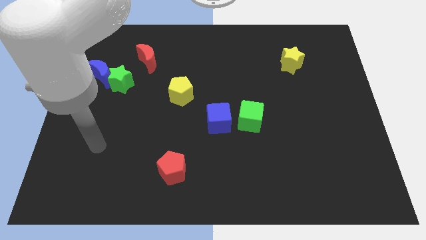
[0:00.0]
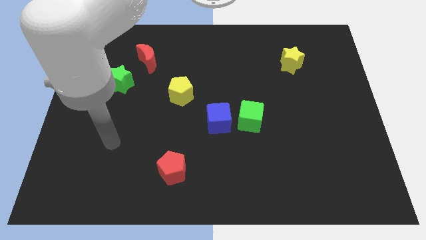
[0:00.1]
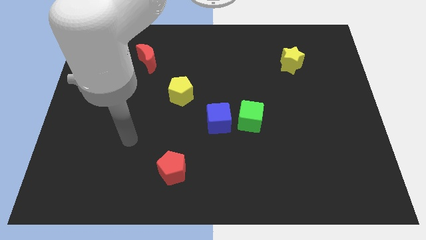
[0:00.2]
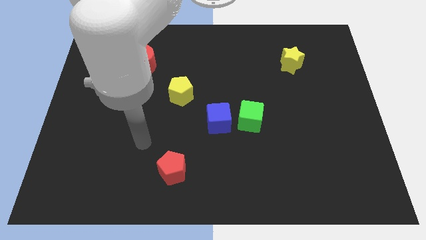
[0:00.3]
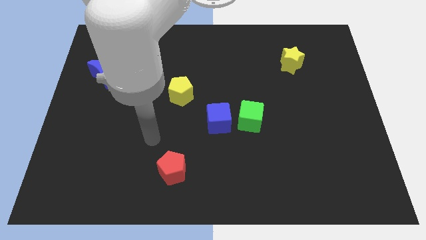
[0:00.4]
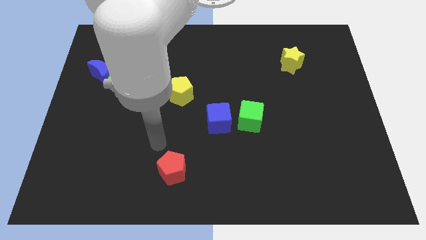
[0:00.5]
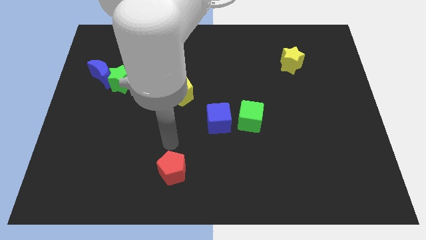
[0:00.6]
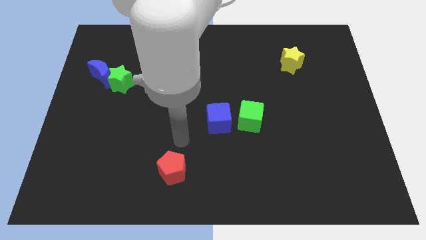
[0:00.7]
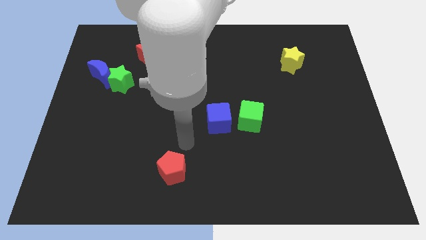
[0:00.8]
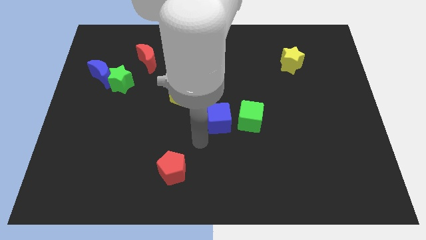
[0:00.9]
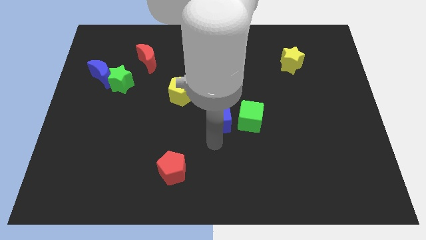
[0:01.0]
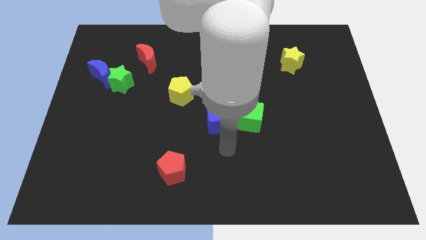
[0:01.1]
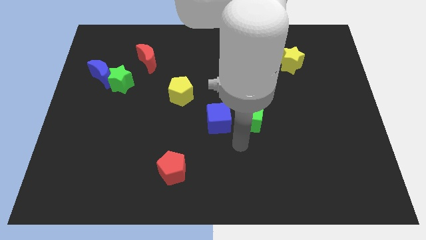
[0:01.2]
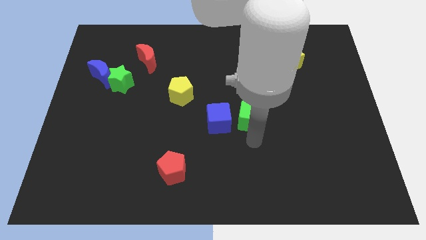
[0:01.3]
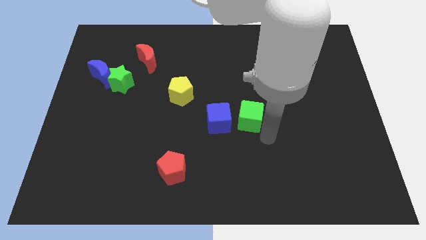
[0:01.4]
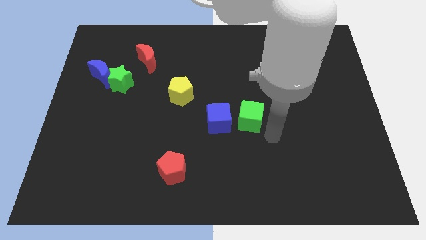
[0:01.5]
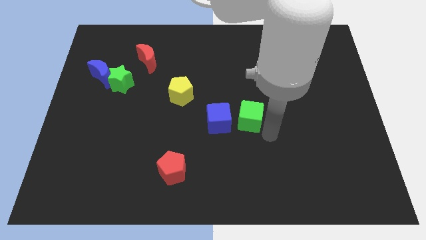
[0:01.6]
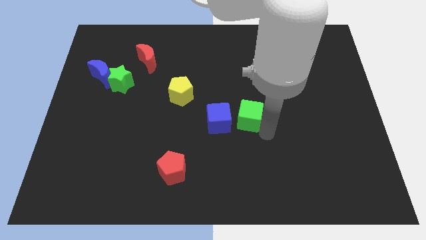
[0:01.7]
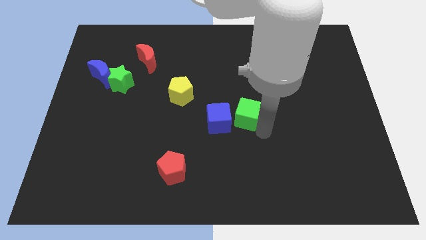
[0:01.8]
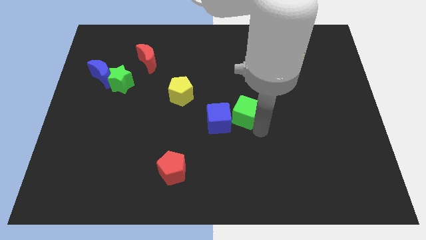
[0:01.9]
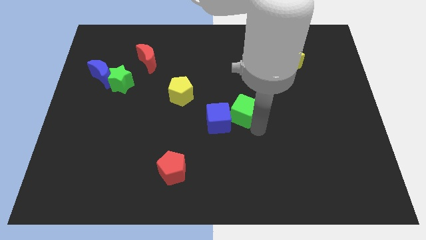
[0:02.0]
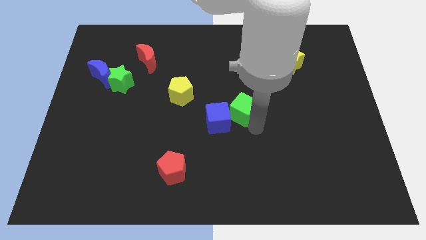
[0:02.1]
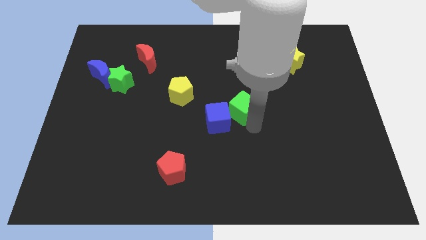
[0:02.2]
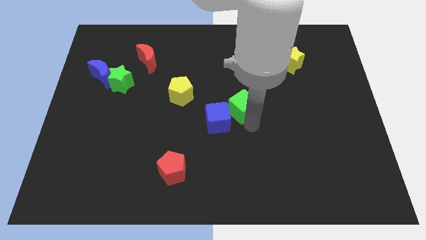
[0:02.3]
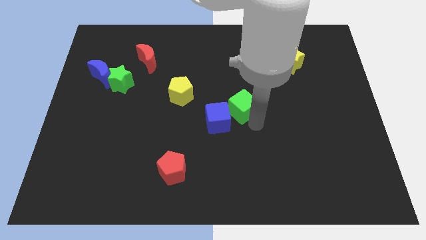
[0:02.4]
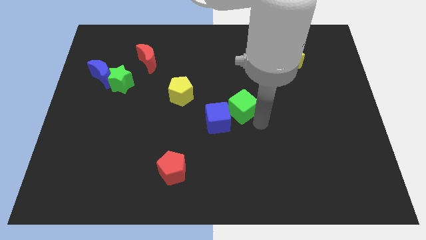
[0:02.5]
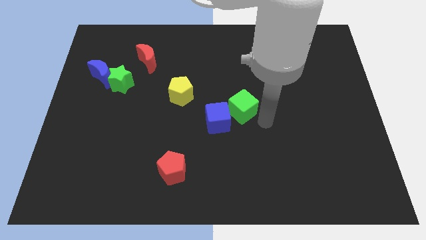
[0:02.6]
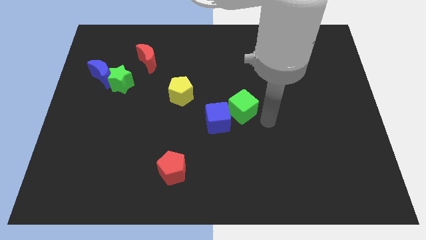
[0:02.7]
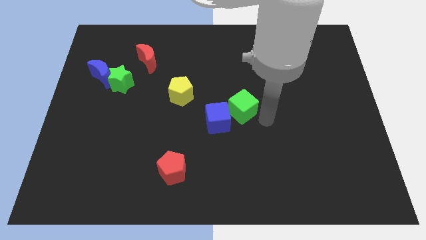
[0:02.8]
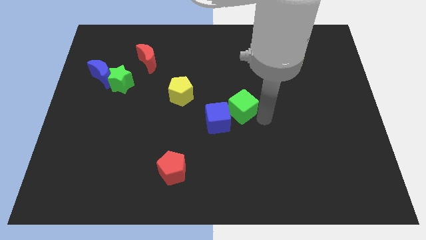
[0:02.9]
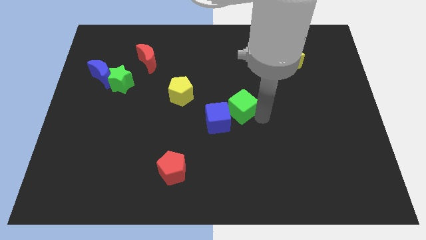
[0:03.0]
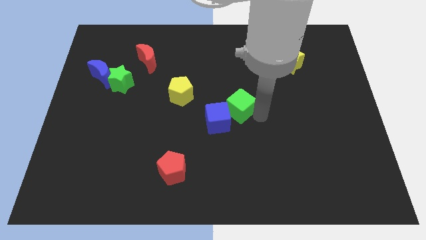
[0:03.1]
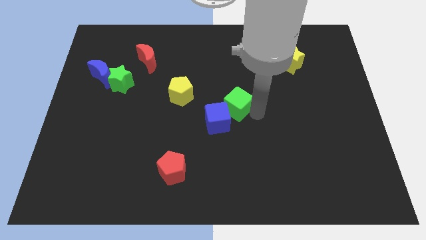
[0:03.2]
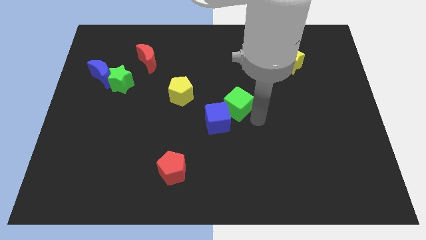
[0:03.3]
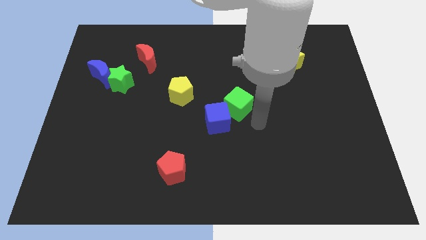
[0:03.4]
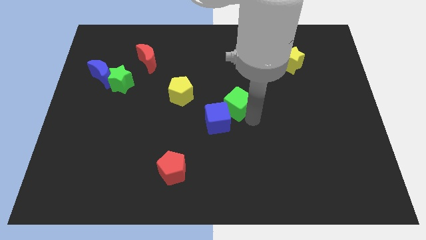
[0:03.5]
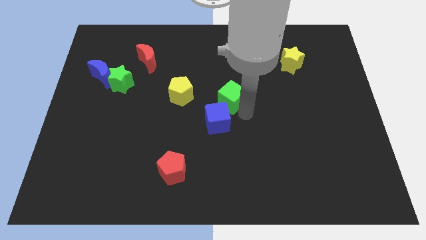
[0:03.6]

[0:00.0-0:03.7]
slightly push the green cube diagonally up and left

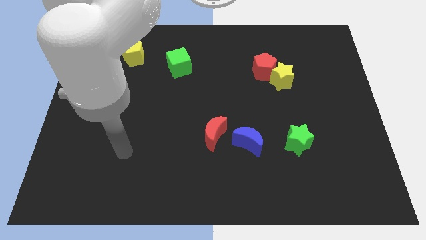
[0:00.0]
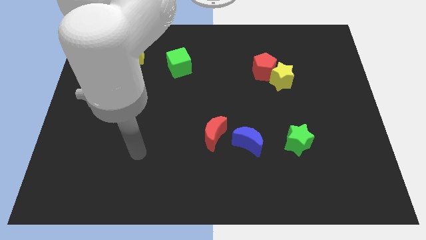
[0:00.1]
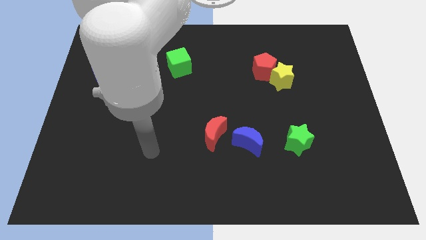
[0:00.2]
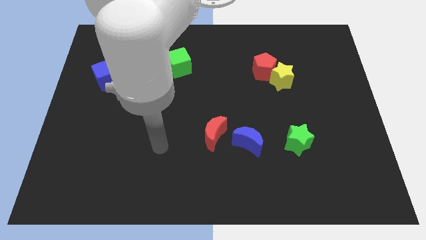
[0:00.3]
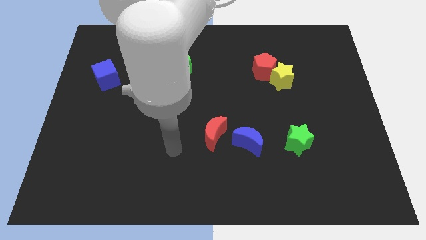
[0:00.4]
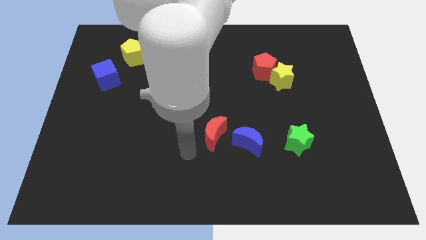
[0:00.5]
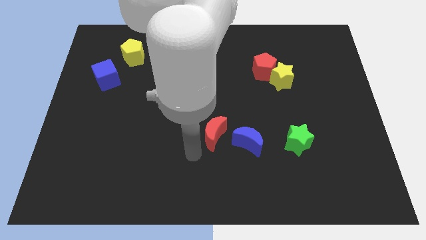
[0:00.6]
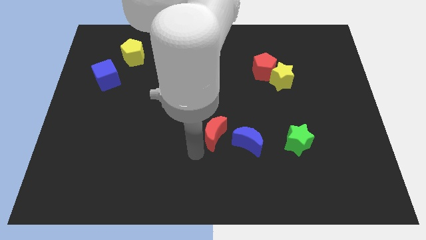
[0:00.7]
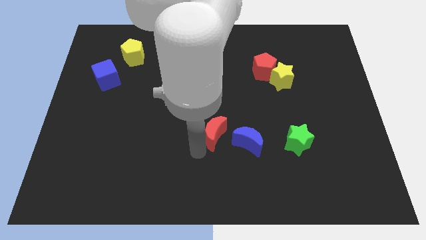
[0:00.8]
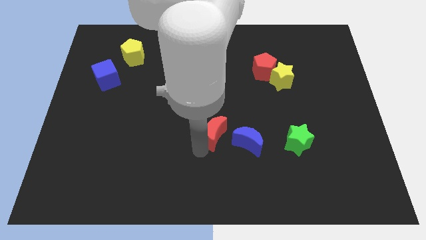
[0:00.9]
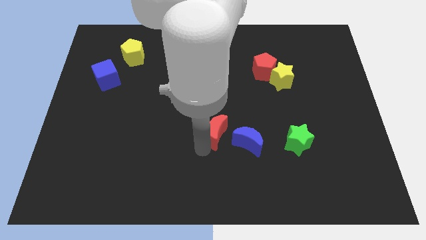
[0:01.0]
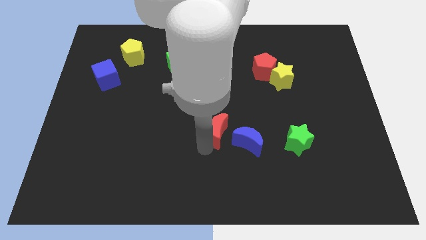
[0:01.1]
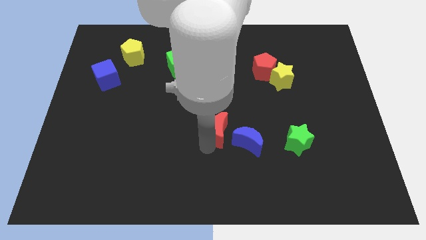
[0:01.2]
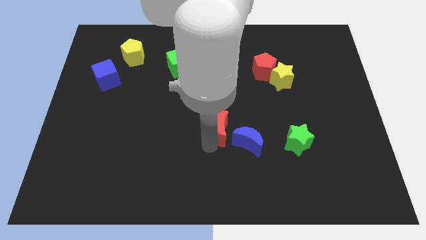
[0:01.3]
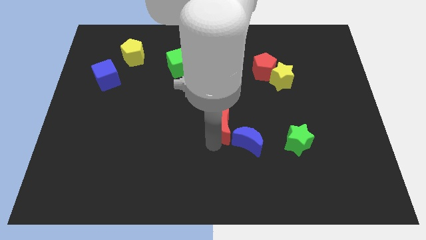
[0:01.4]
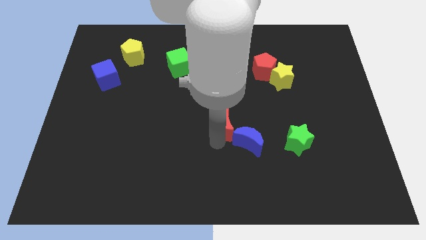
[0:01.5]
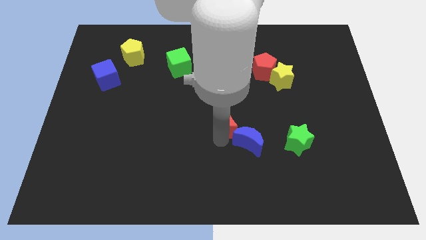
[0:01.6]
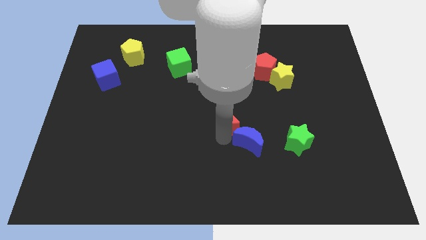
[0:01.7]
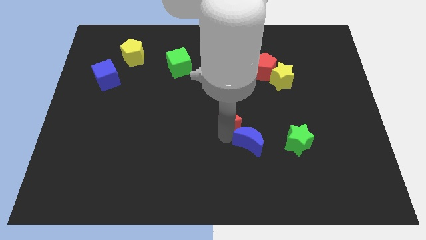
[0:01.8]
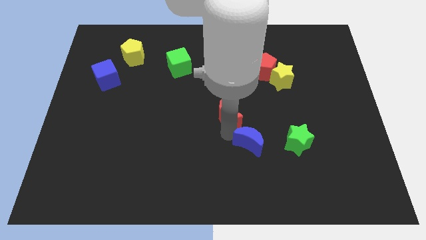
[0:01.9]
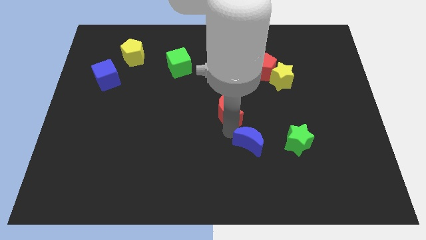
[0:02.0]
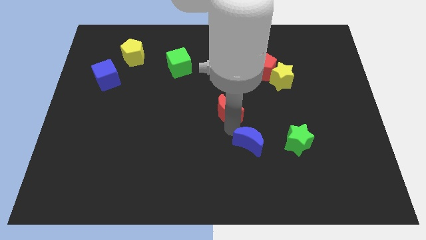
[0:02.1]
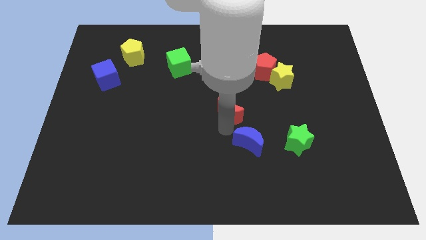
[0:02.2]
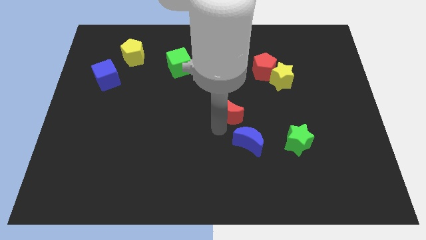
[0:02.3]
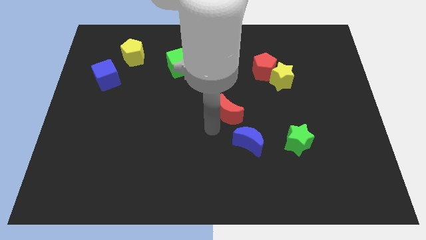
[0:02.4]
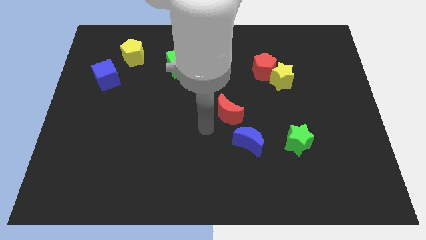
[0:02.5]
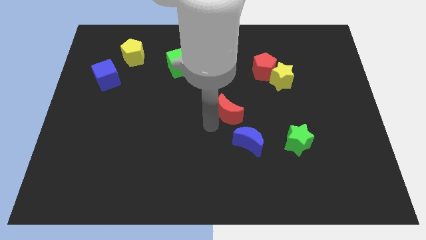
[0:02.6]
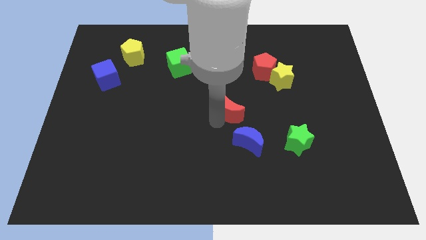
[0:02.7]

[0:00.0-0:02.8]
slightly slide the red moon diagonally upwards and to the right

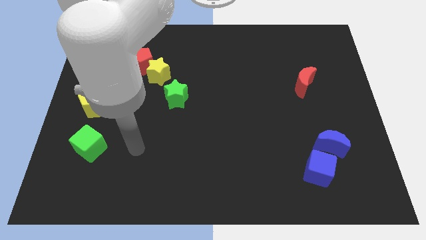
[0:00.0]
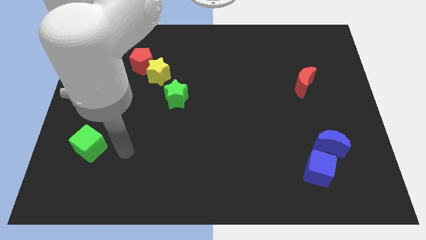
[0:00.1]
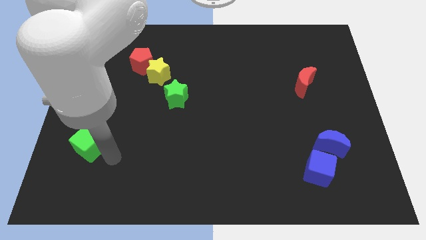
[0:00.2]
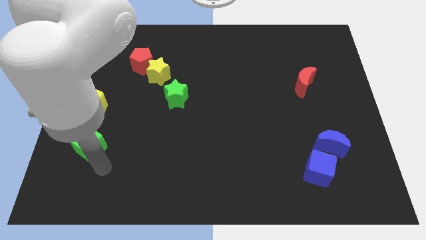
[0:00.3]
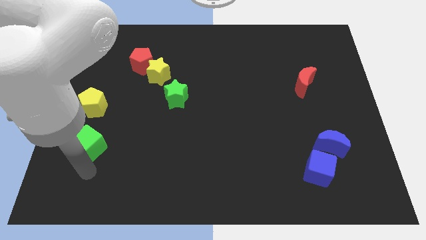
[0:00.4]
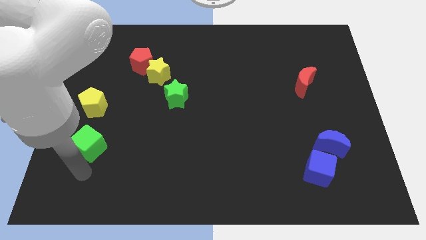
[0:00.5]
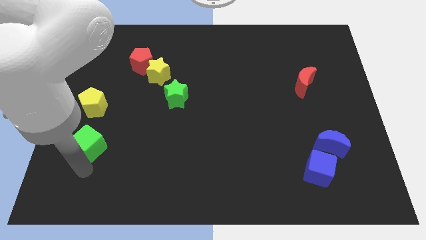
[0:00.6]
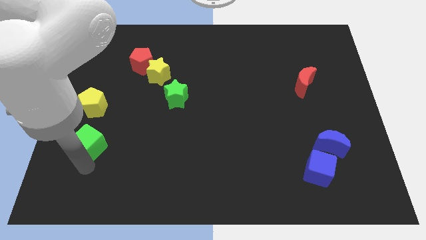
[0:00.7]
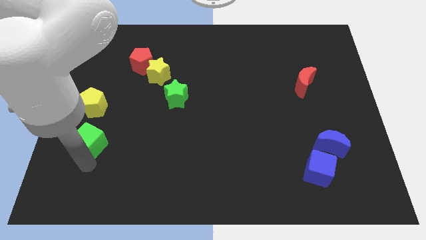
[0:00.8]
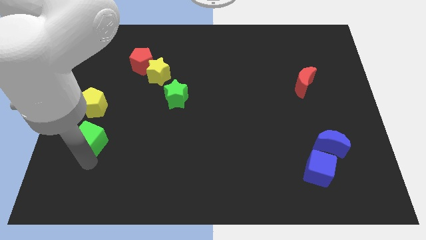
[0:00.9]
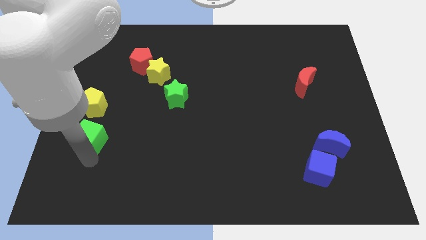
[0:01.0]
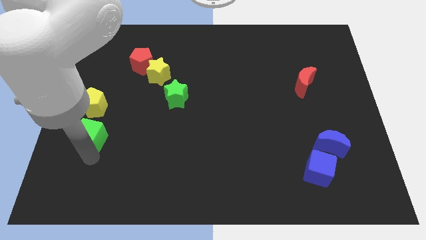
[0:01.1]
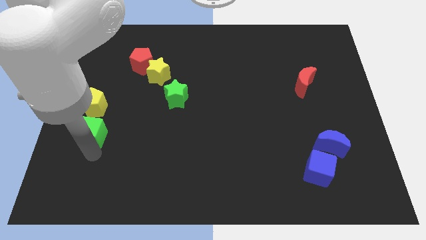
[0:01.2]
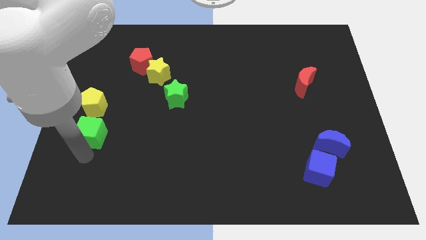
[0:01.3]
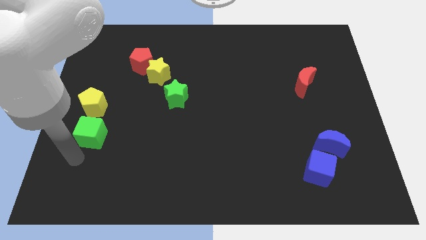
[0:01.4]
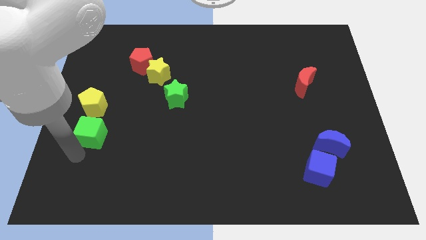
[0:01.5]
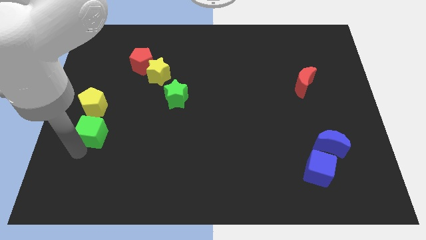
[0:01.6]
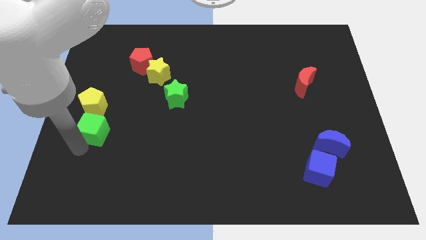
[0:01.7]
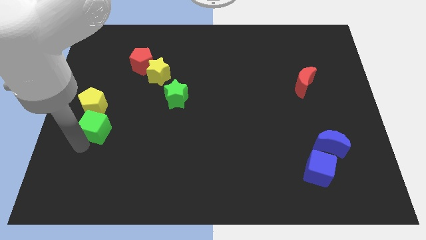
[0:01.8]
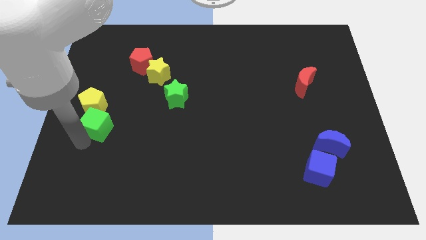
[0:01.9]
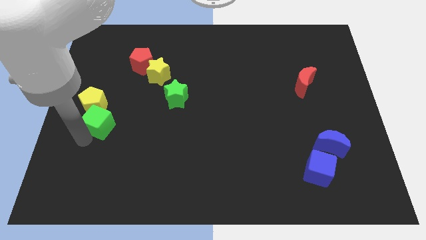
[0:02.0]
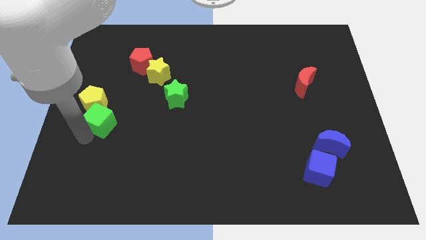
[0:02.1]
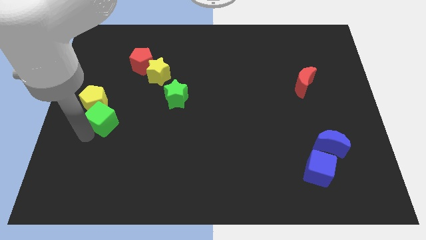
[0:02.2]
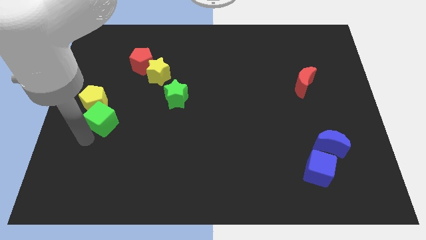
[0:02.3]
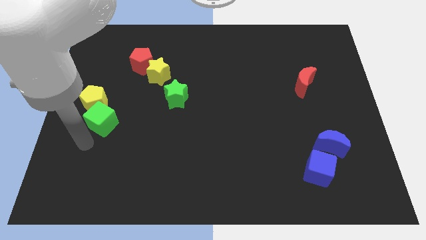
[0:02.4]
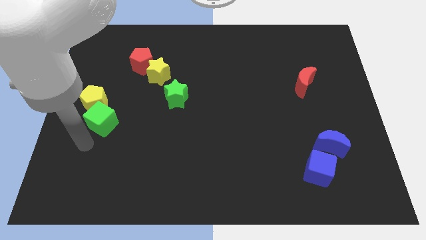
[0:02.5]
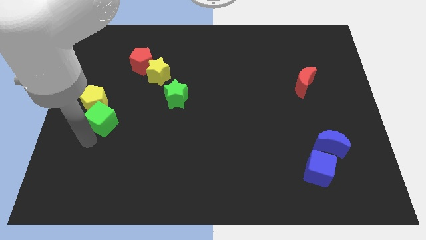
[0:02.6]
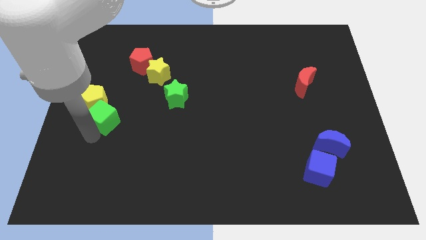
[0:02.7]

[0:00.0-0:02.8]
slightly push the green cube upwards
